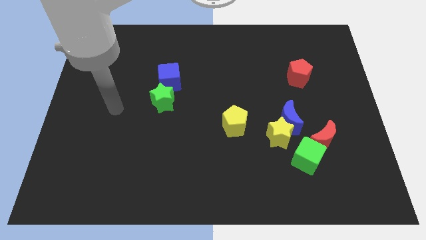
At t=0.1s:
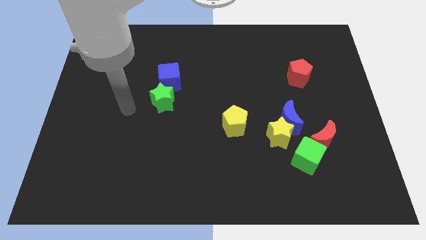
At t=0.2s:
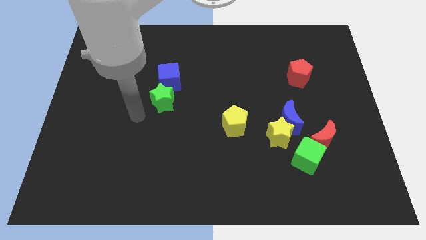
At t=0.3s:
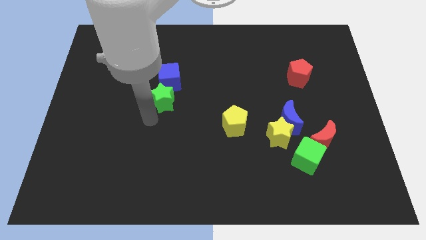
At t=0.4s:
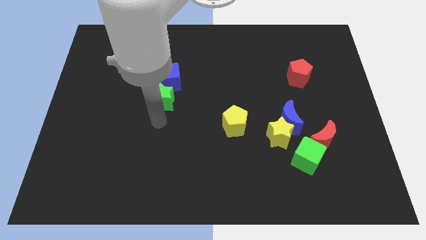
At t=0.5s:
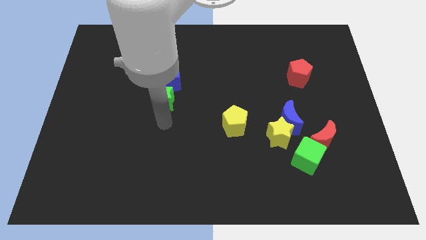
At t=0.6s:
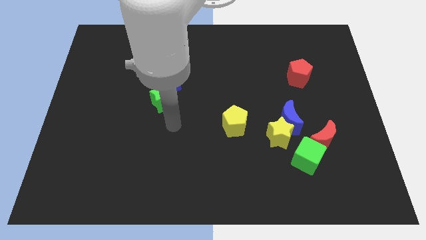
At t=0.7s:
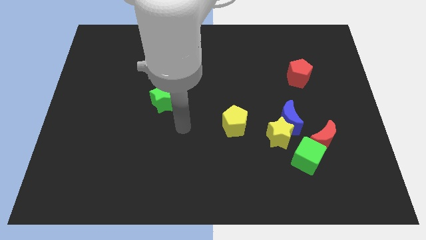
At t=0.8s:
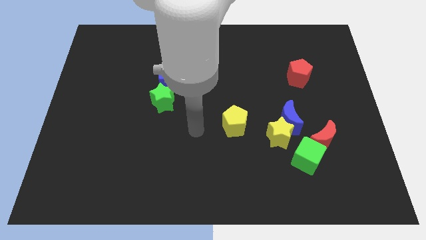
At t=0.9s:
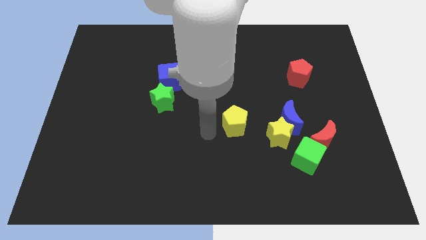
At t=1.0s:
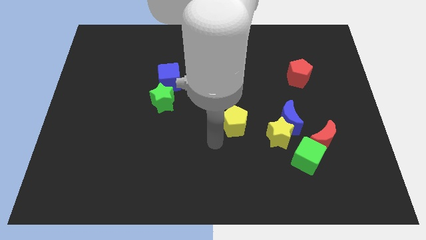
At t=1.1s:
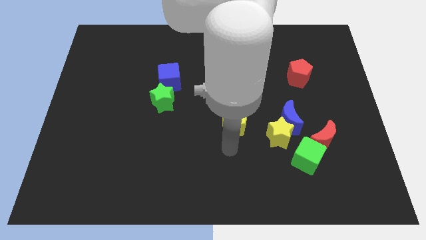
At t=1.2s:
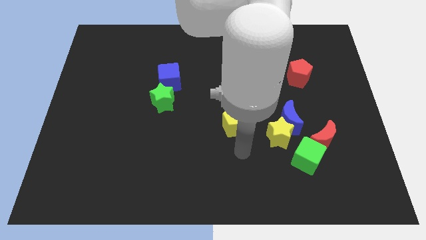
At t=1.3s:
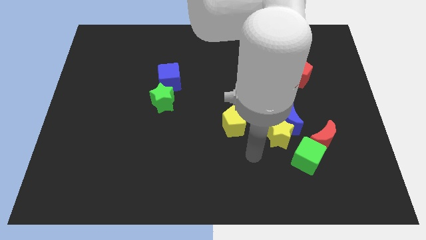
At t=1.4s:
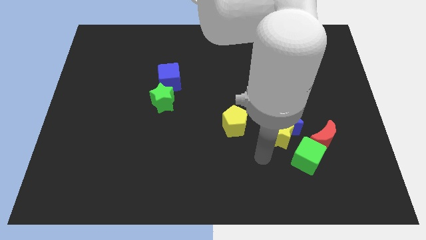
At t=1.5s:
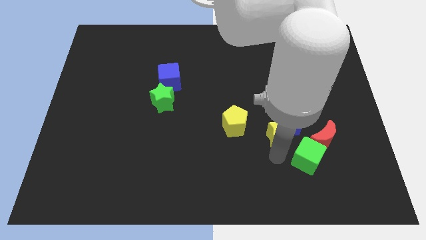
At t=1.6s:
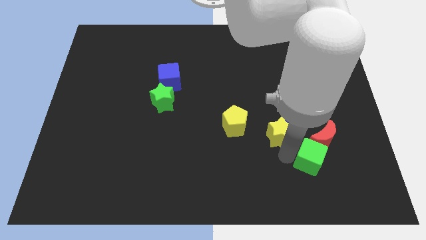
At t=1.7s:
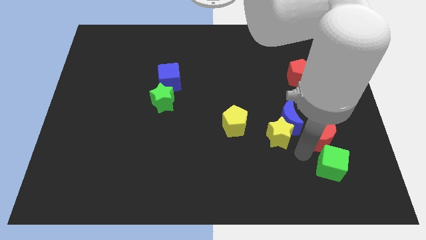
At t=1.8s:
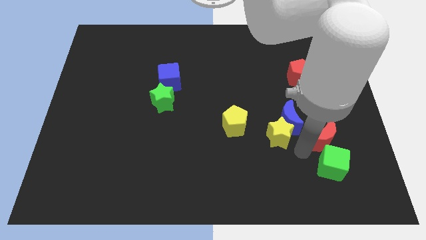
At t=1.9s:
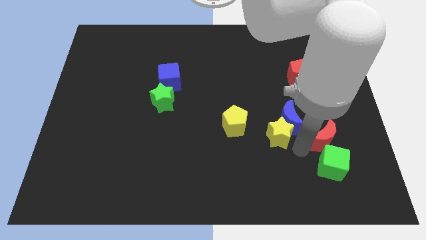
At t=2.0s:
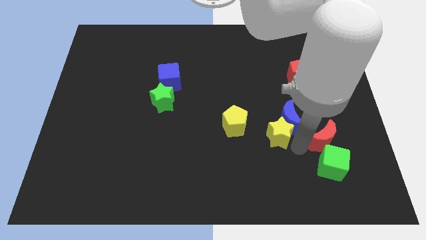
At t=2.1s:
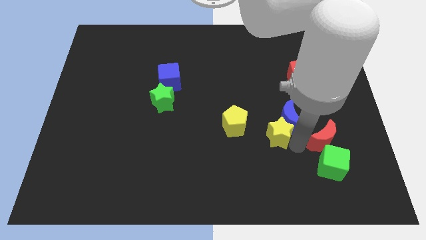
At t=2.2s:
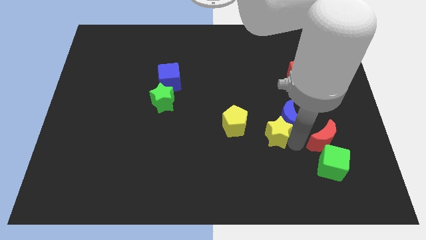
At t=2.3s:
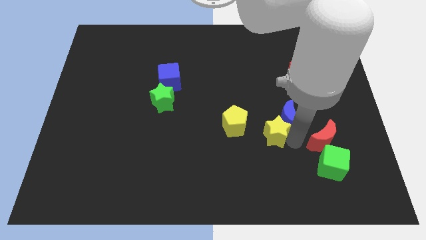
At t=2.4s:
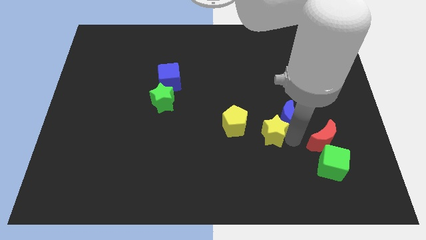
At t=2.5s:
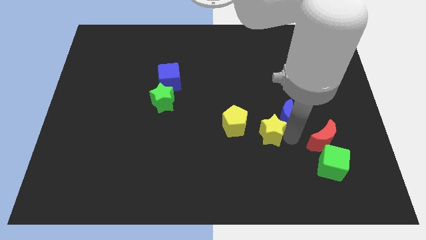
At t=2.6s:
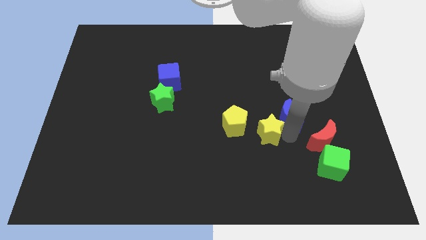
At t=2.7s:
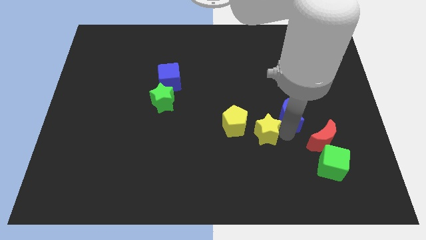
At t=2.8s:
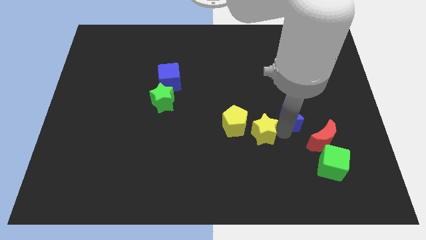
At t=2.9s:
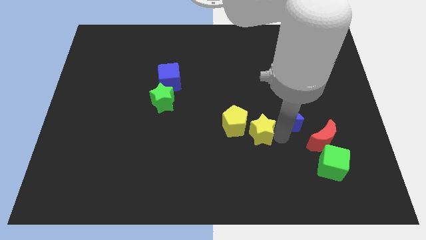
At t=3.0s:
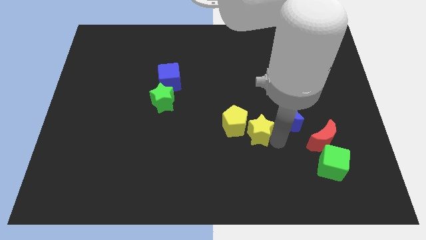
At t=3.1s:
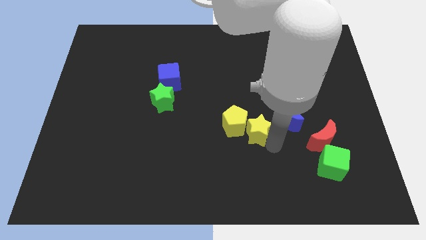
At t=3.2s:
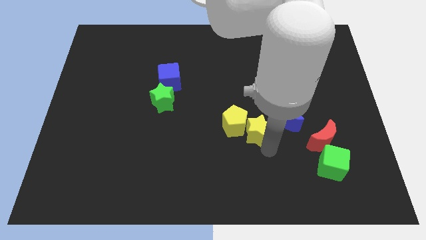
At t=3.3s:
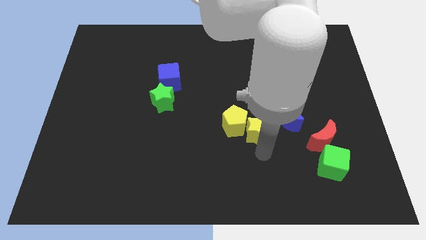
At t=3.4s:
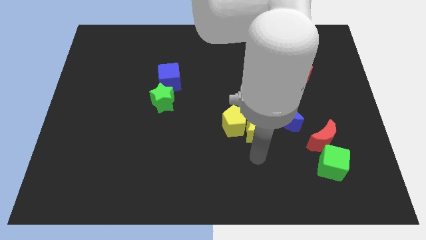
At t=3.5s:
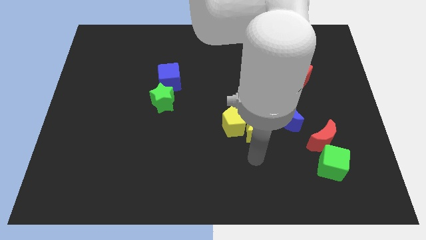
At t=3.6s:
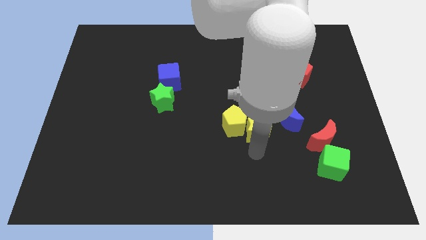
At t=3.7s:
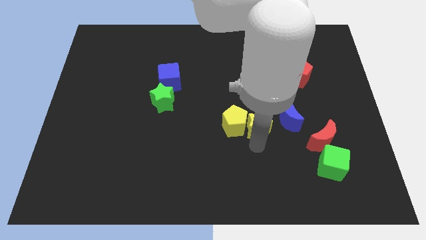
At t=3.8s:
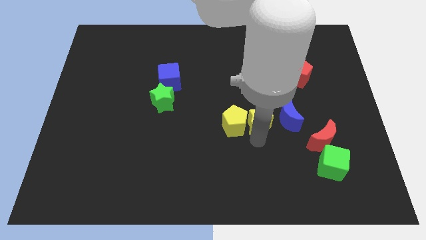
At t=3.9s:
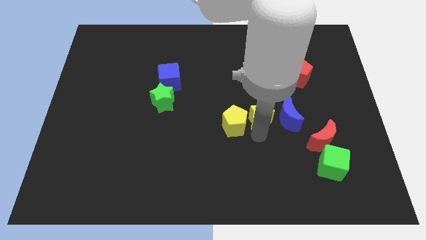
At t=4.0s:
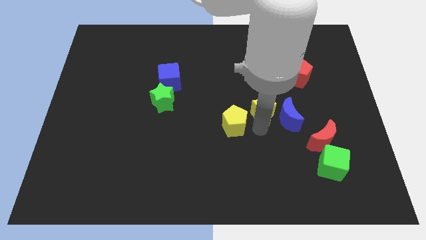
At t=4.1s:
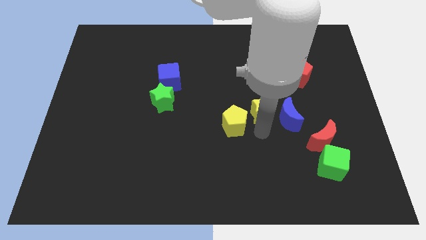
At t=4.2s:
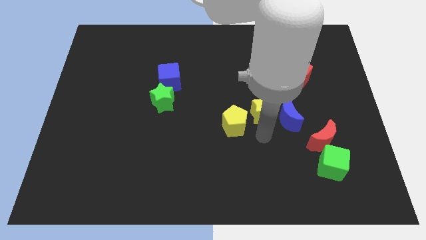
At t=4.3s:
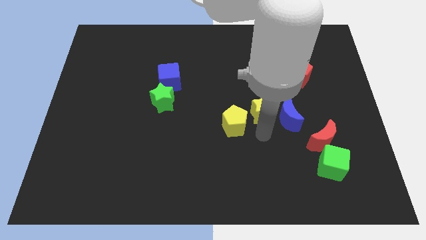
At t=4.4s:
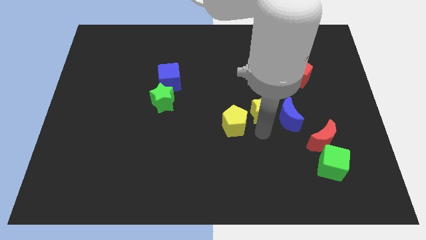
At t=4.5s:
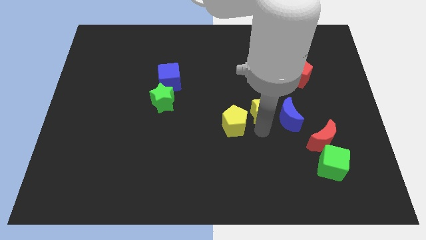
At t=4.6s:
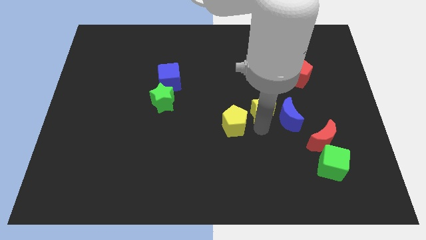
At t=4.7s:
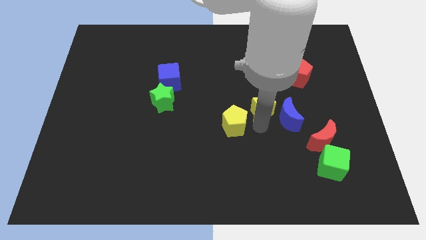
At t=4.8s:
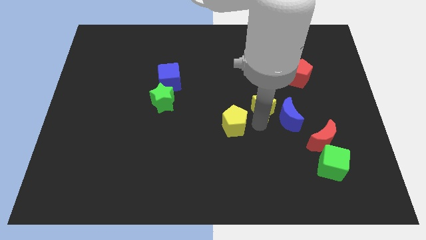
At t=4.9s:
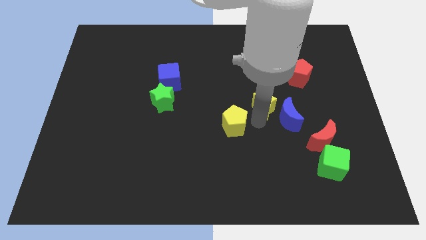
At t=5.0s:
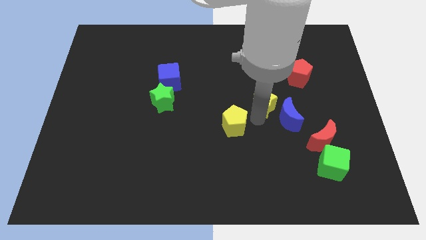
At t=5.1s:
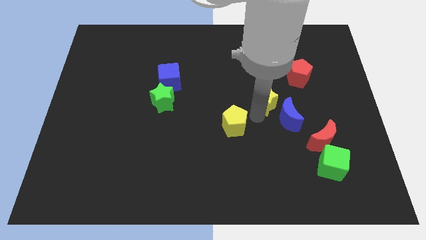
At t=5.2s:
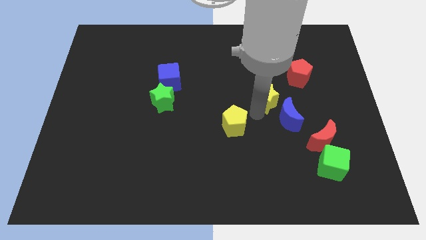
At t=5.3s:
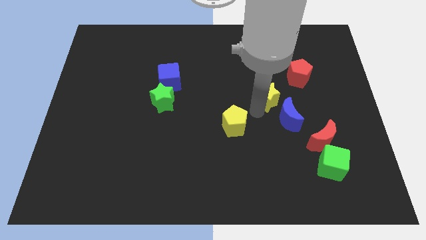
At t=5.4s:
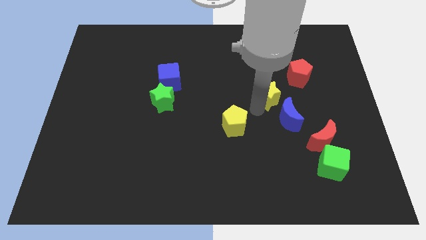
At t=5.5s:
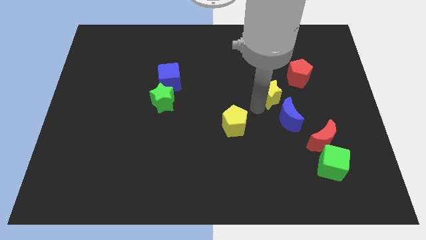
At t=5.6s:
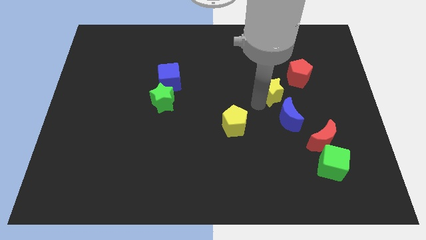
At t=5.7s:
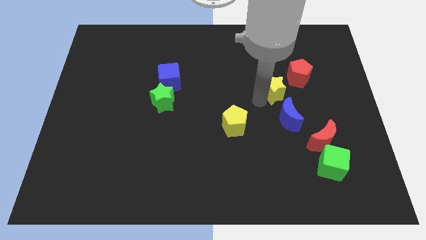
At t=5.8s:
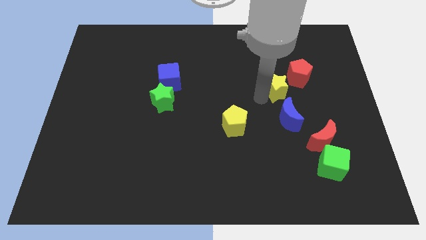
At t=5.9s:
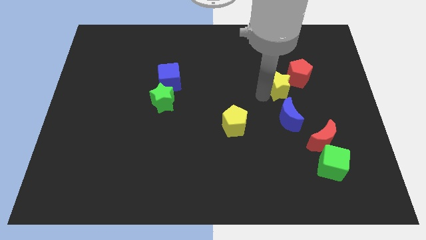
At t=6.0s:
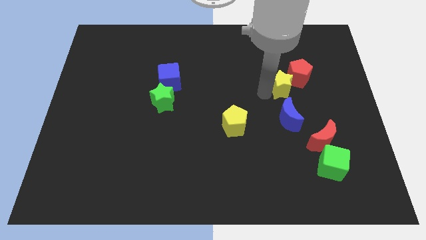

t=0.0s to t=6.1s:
push the yellow star to the red pentagon

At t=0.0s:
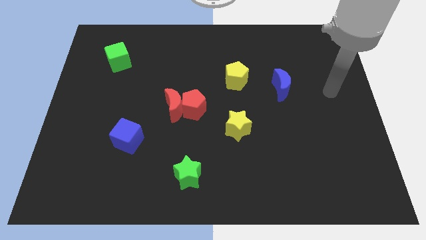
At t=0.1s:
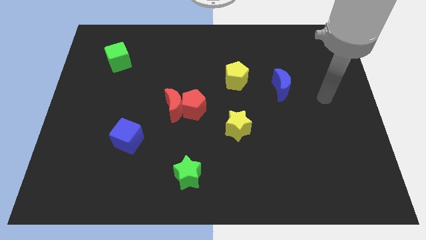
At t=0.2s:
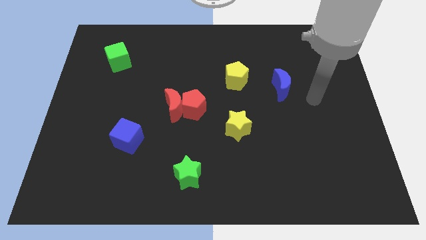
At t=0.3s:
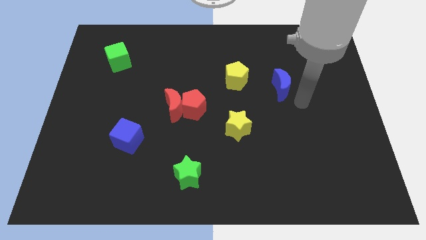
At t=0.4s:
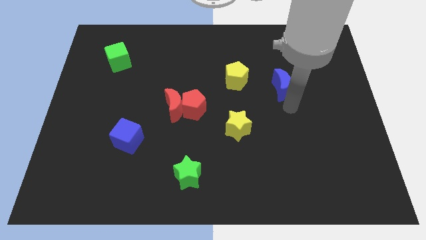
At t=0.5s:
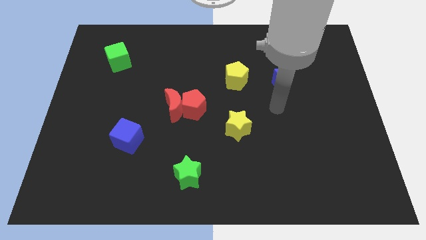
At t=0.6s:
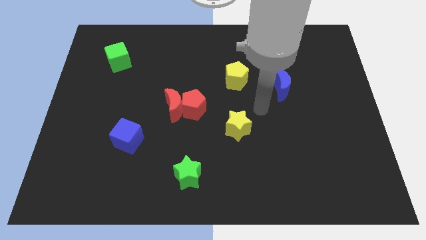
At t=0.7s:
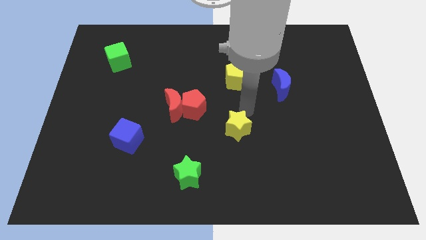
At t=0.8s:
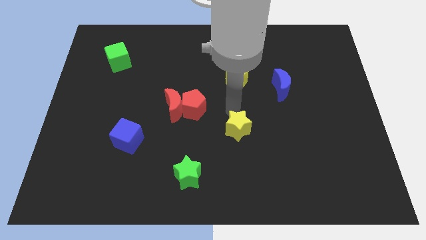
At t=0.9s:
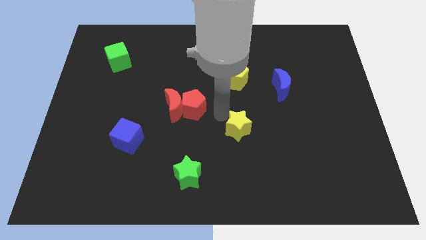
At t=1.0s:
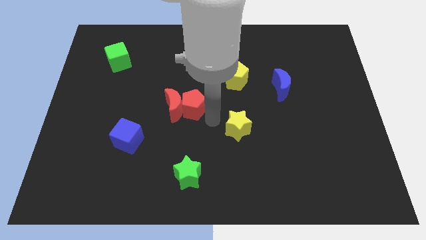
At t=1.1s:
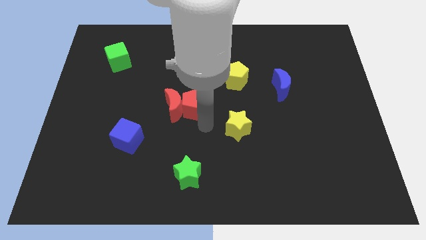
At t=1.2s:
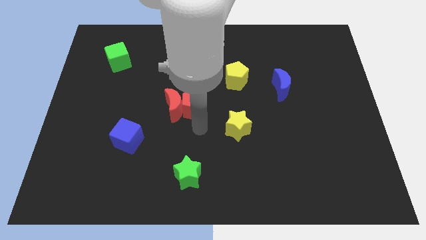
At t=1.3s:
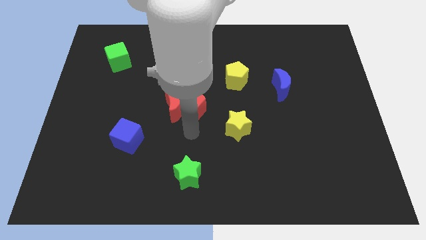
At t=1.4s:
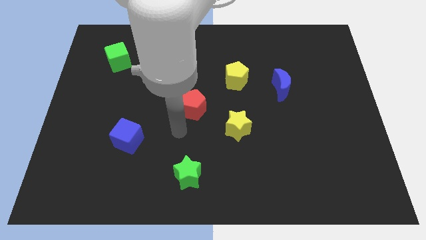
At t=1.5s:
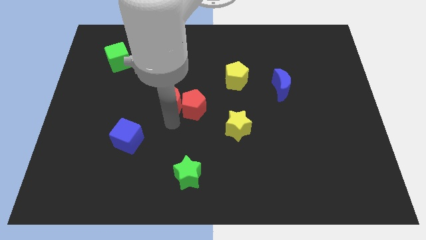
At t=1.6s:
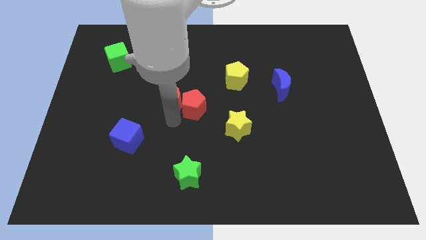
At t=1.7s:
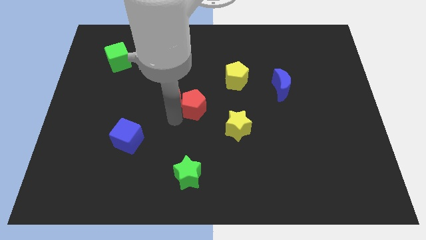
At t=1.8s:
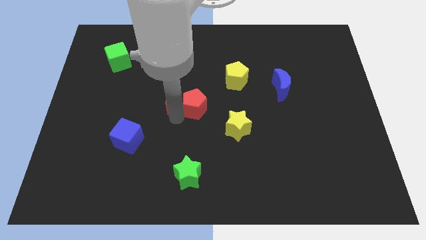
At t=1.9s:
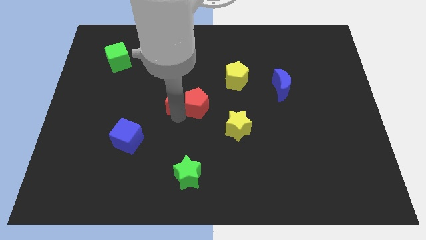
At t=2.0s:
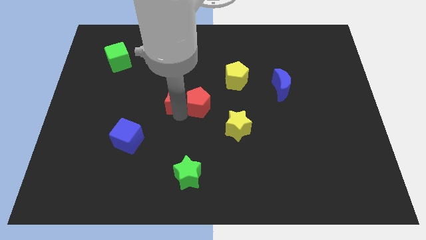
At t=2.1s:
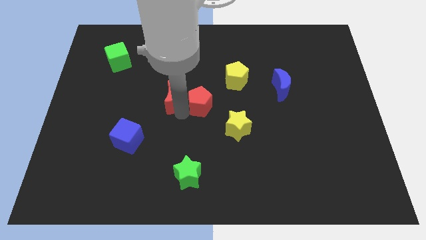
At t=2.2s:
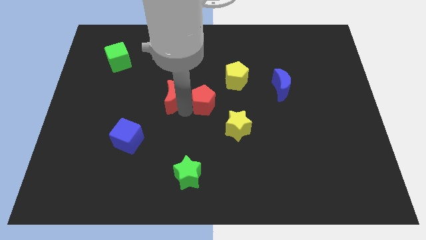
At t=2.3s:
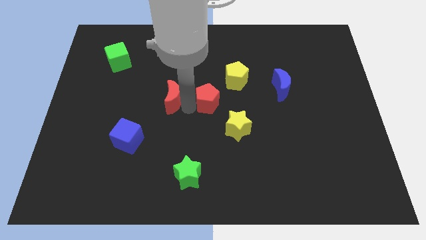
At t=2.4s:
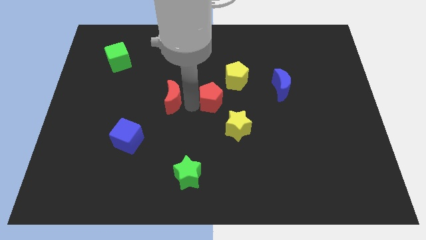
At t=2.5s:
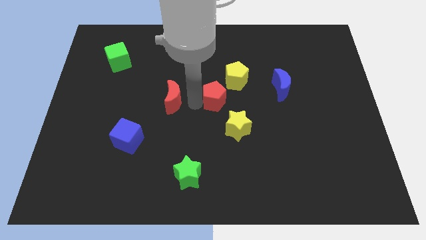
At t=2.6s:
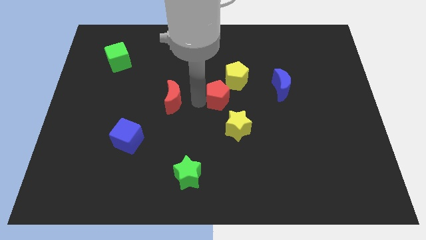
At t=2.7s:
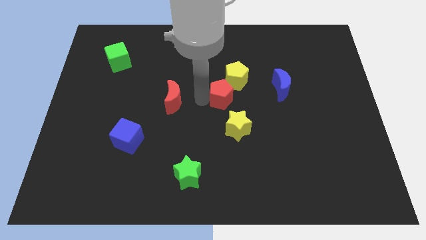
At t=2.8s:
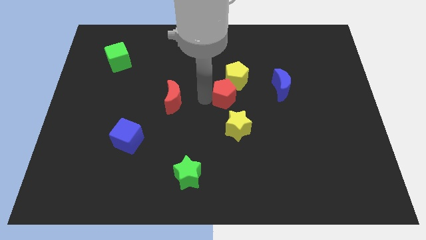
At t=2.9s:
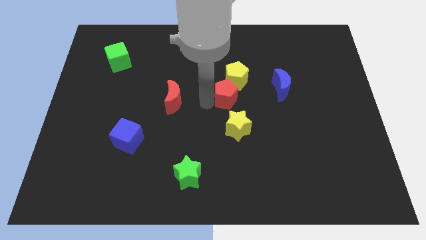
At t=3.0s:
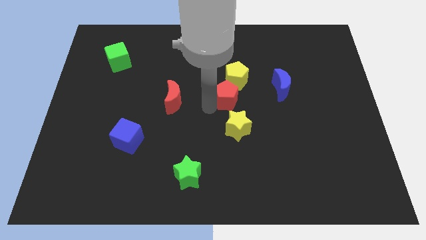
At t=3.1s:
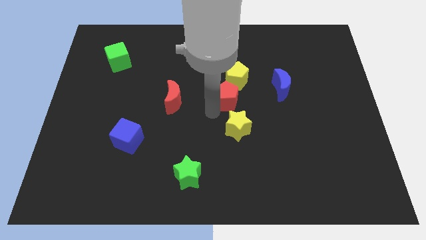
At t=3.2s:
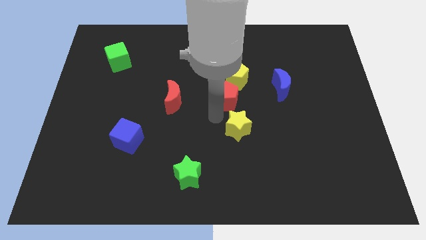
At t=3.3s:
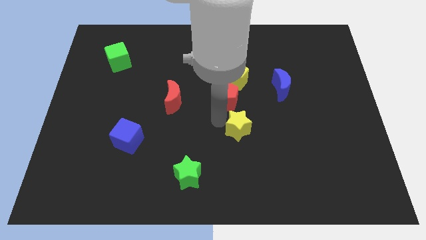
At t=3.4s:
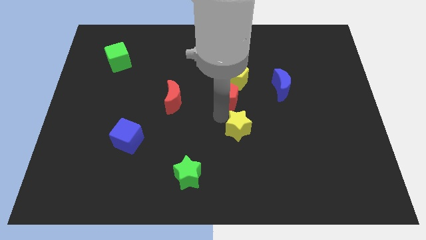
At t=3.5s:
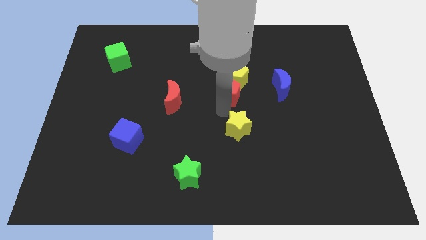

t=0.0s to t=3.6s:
slide the red pentagon towards the yellow pentagon
